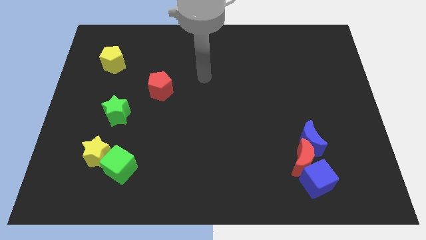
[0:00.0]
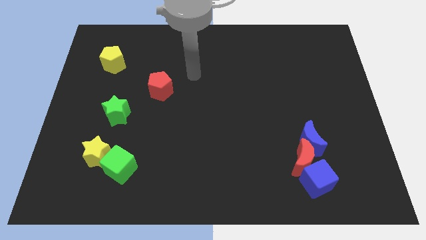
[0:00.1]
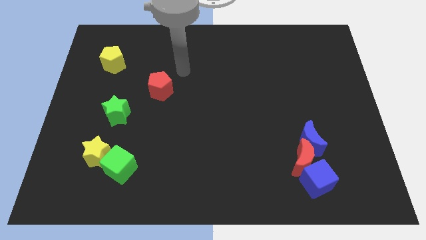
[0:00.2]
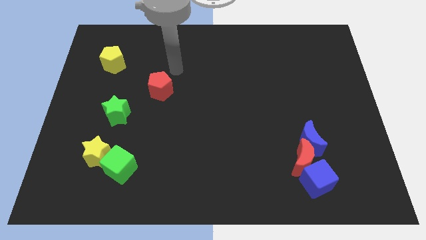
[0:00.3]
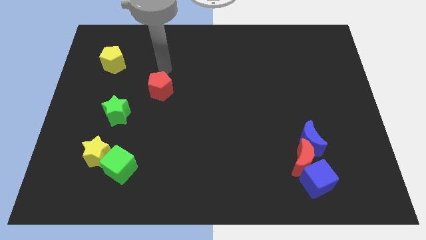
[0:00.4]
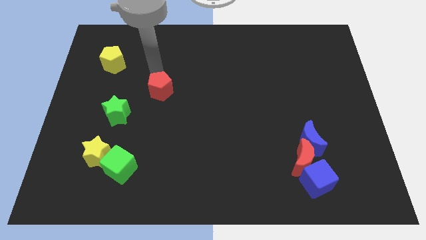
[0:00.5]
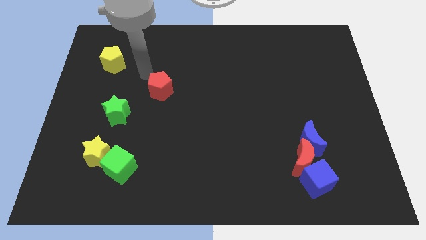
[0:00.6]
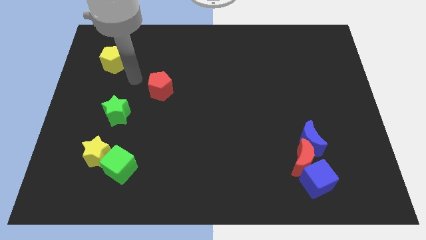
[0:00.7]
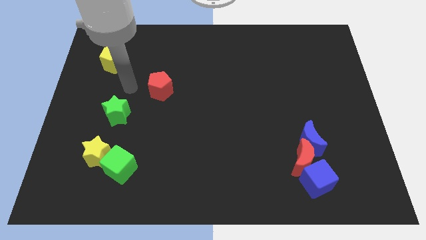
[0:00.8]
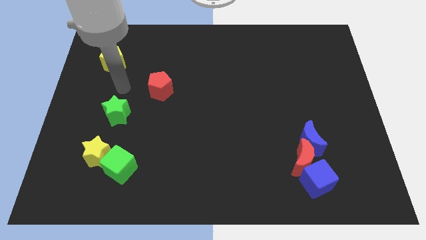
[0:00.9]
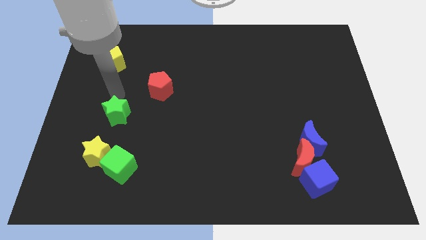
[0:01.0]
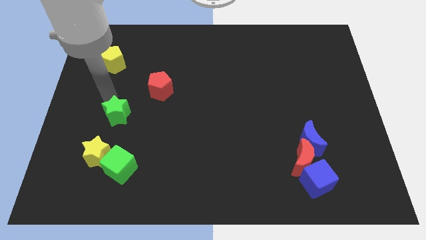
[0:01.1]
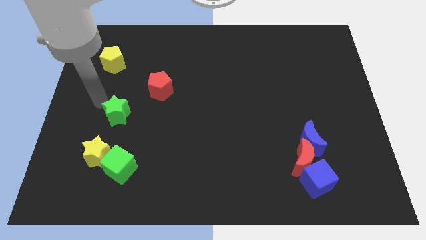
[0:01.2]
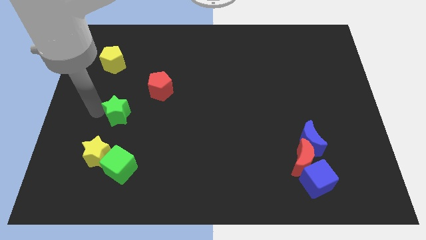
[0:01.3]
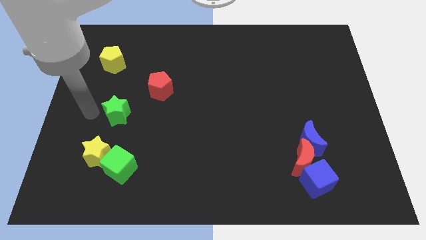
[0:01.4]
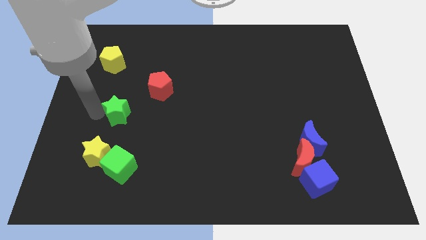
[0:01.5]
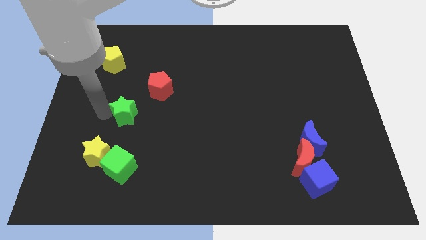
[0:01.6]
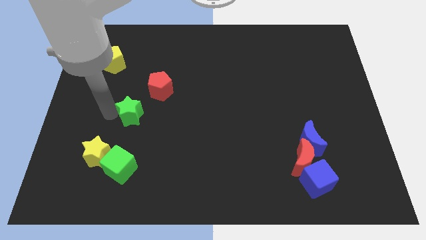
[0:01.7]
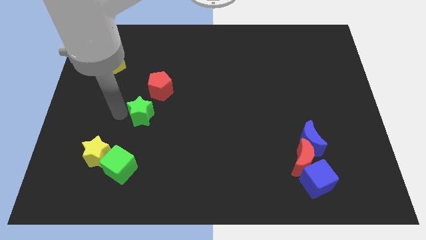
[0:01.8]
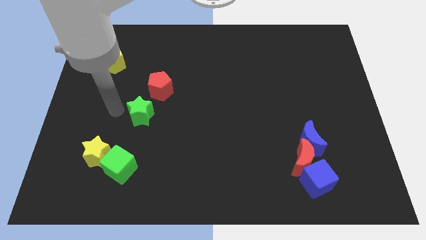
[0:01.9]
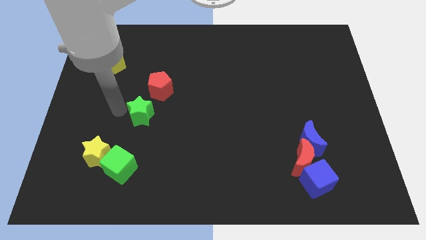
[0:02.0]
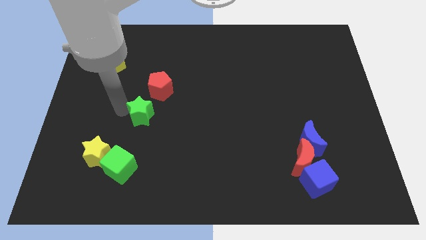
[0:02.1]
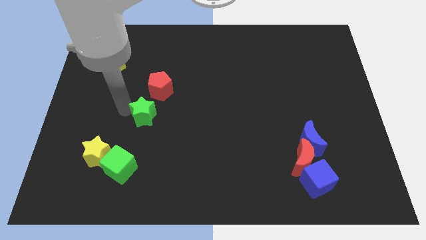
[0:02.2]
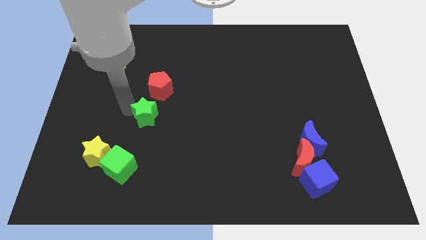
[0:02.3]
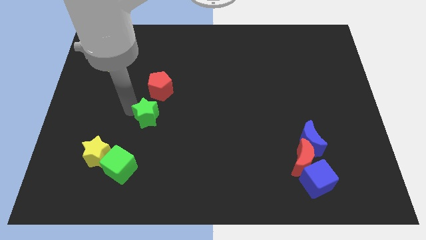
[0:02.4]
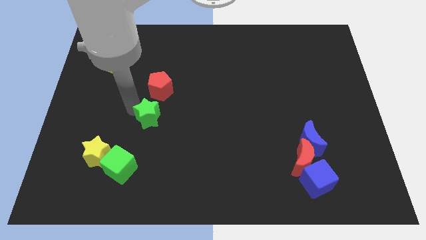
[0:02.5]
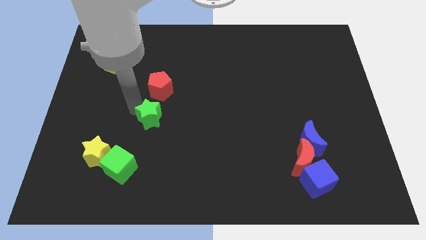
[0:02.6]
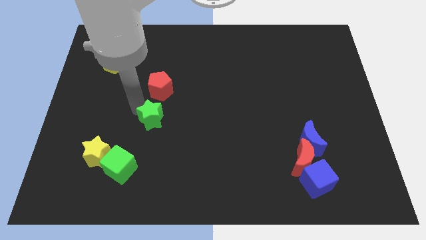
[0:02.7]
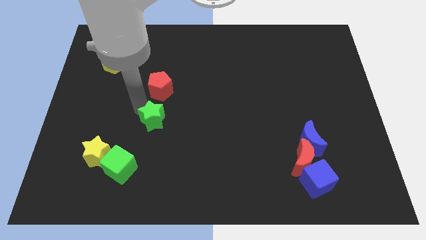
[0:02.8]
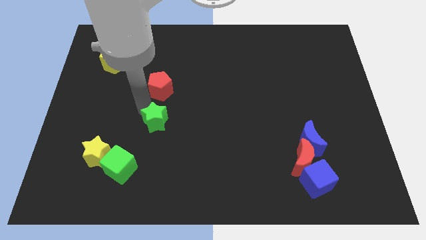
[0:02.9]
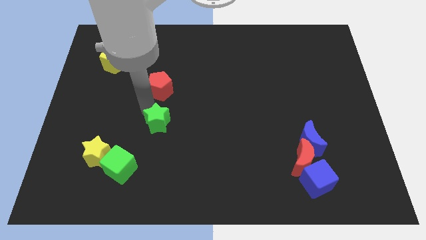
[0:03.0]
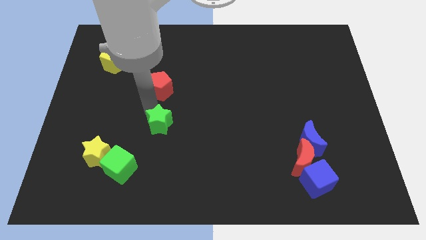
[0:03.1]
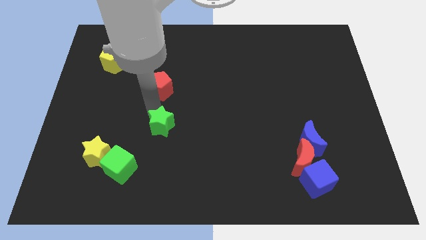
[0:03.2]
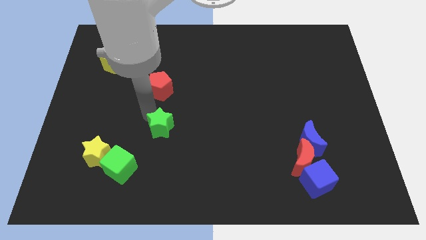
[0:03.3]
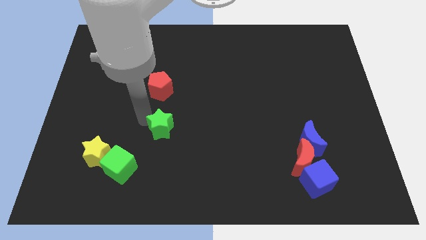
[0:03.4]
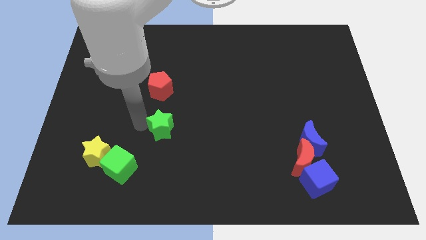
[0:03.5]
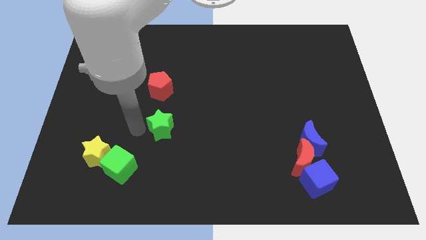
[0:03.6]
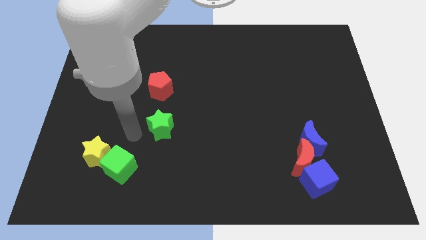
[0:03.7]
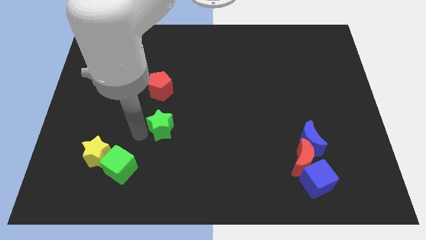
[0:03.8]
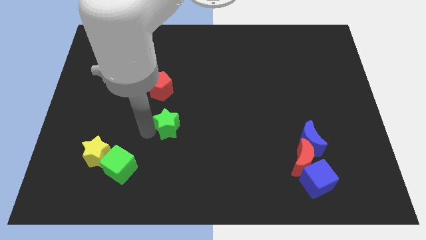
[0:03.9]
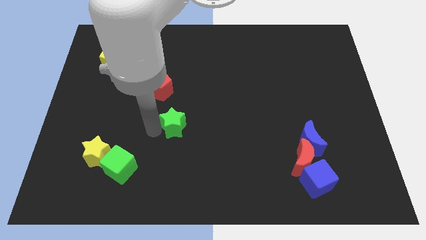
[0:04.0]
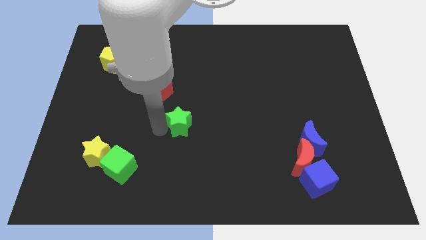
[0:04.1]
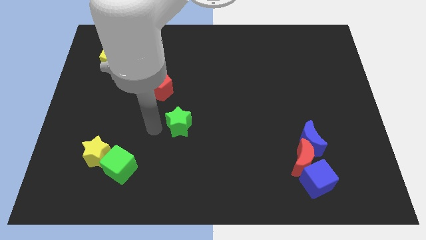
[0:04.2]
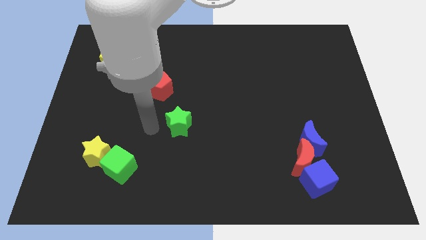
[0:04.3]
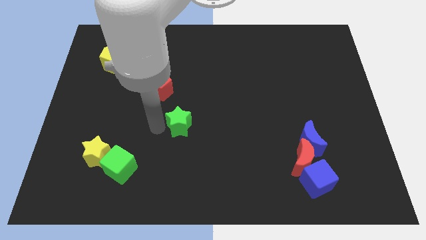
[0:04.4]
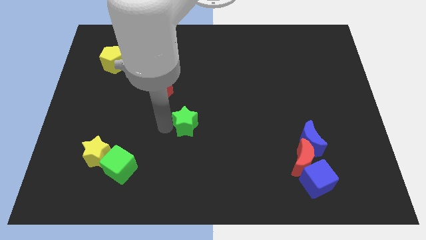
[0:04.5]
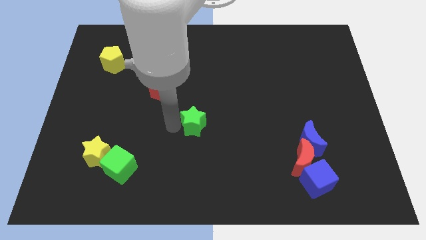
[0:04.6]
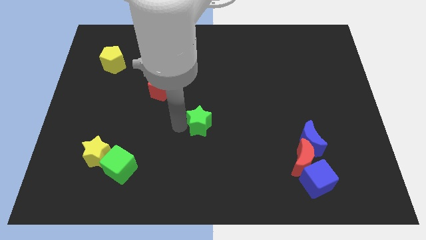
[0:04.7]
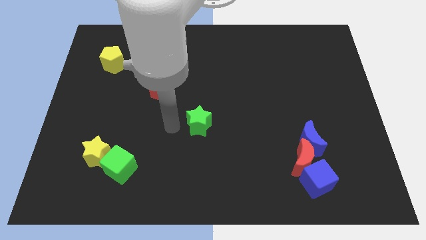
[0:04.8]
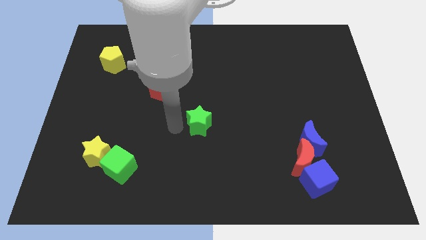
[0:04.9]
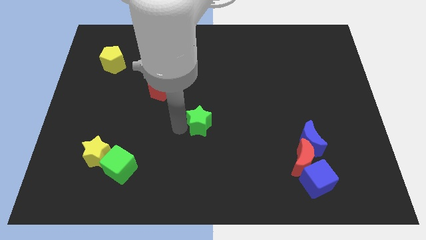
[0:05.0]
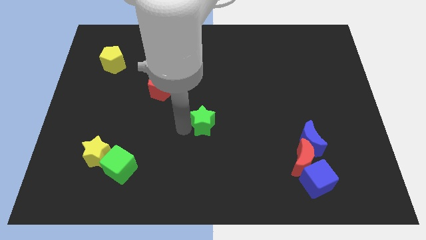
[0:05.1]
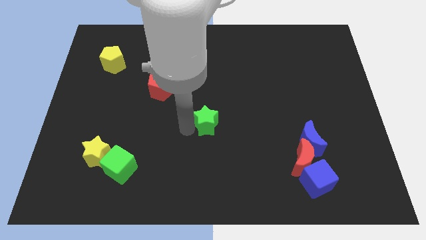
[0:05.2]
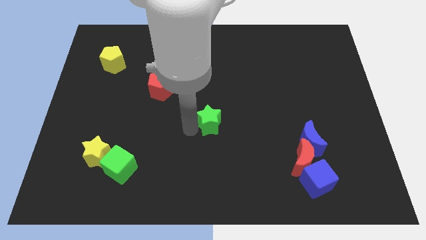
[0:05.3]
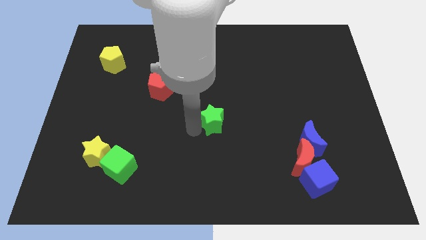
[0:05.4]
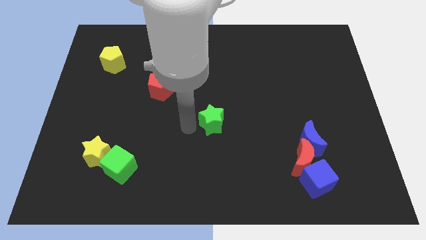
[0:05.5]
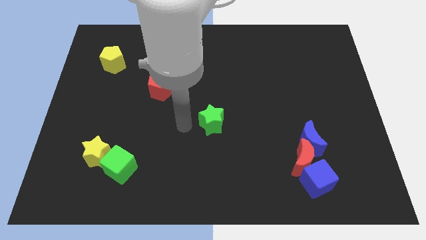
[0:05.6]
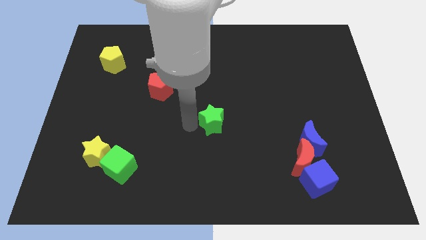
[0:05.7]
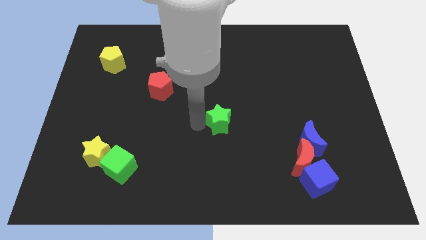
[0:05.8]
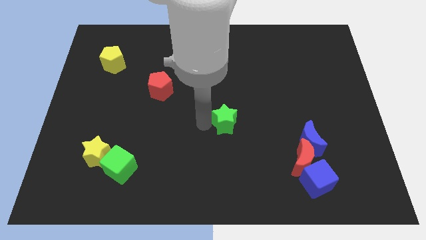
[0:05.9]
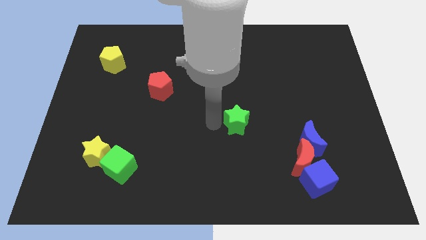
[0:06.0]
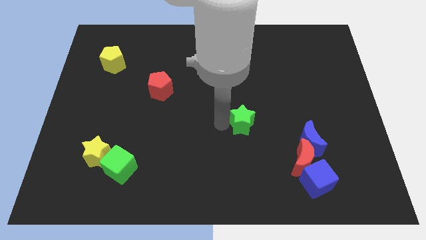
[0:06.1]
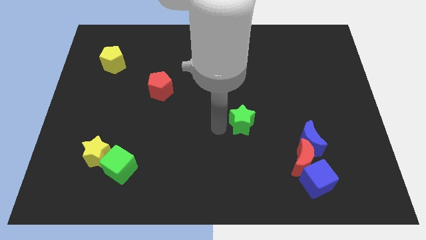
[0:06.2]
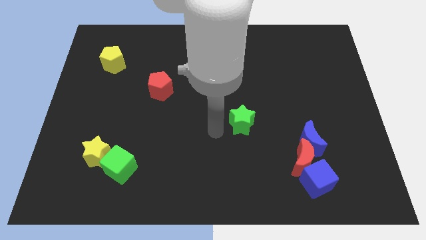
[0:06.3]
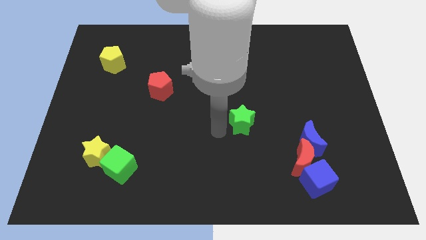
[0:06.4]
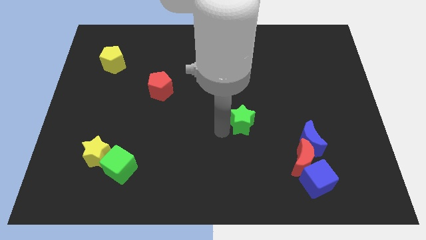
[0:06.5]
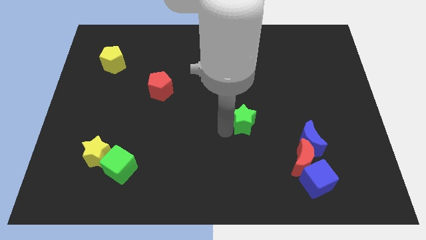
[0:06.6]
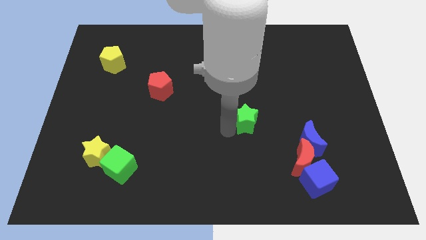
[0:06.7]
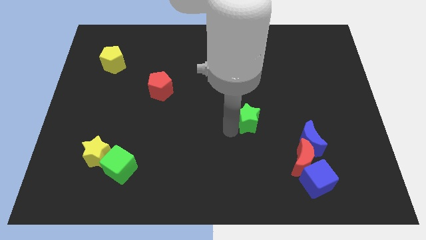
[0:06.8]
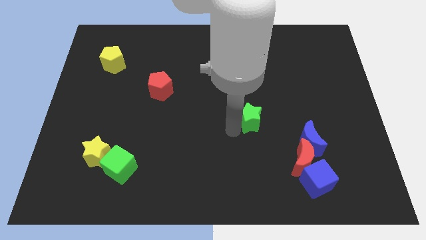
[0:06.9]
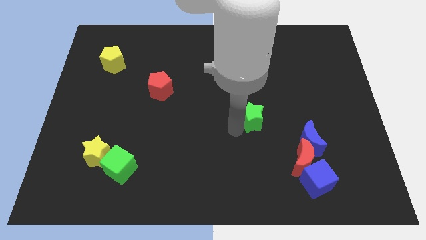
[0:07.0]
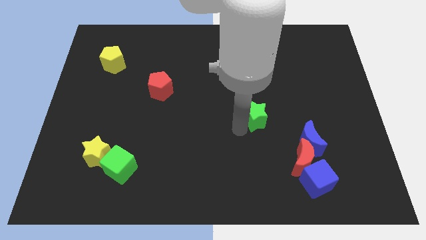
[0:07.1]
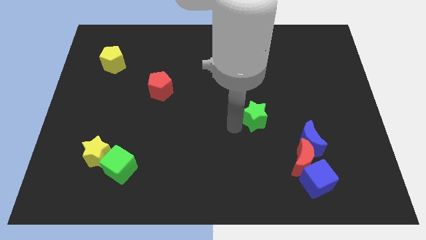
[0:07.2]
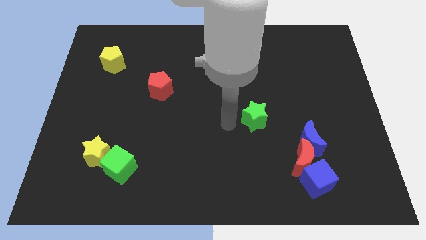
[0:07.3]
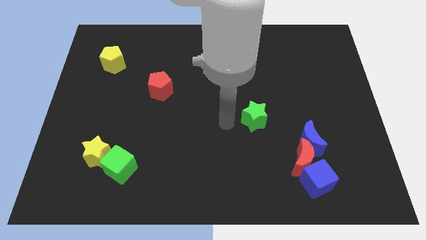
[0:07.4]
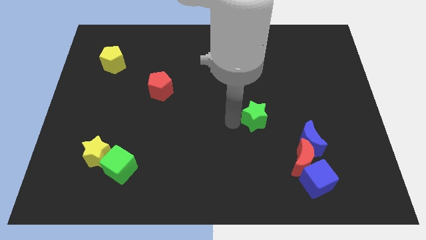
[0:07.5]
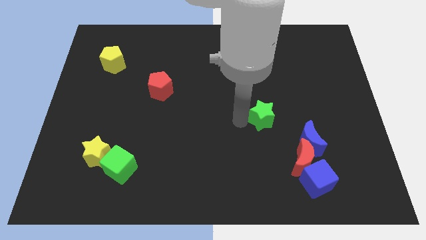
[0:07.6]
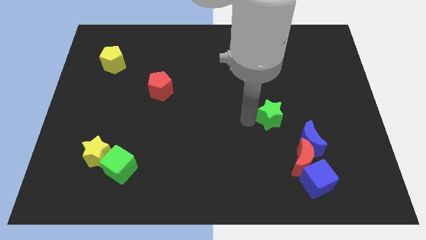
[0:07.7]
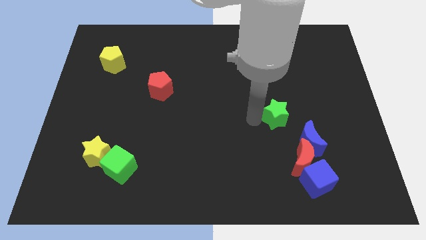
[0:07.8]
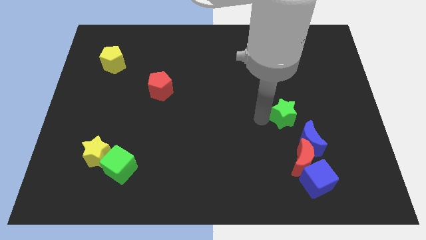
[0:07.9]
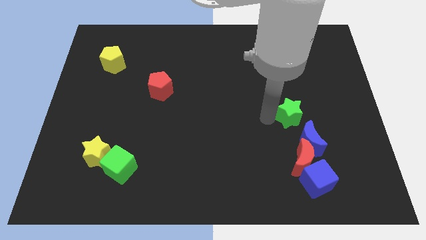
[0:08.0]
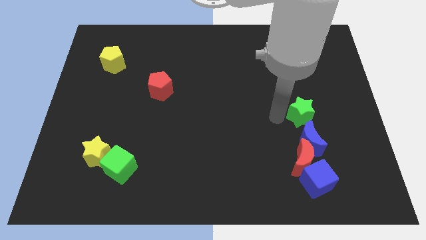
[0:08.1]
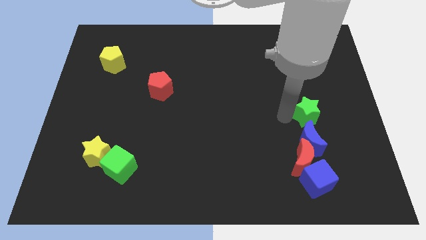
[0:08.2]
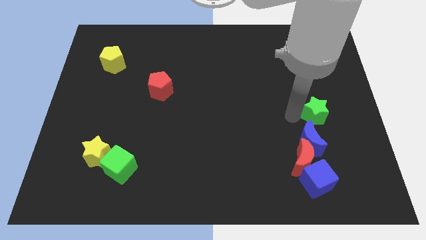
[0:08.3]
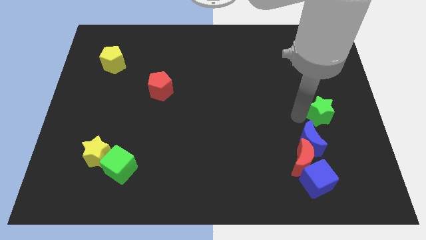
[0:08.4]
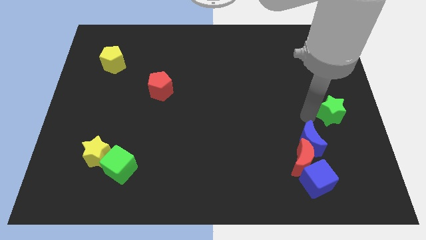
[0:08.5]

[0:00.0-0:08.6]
push the green star to the right side of the board
